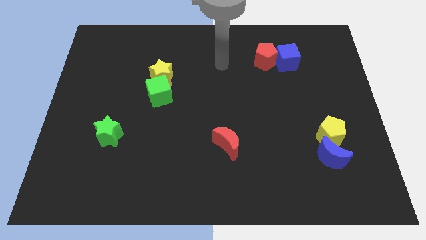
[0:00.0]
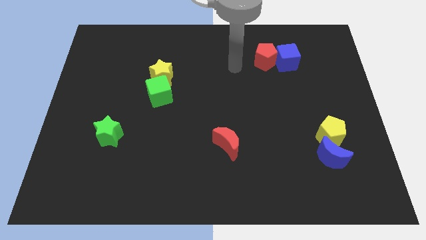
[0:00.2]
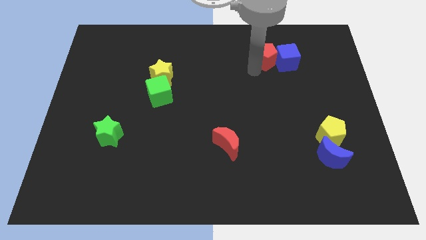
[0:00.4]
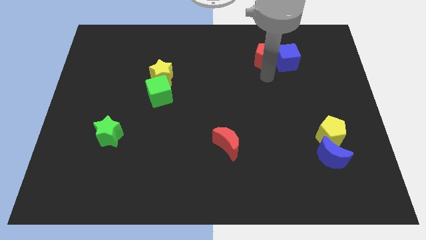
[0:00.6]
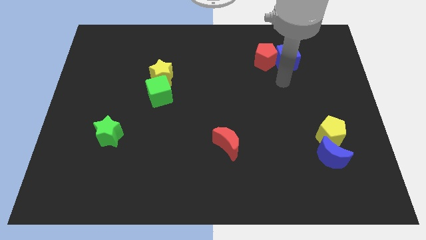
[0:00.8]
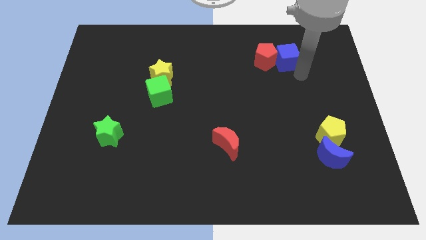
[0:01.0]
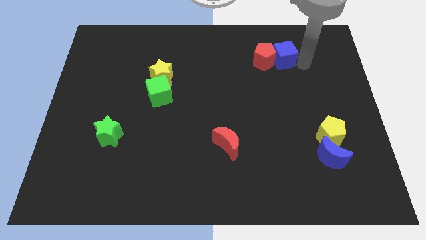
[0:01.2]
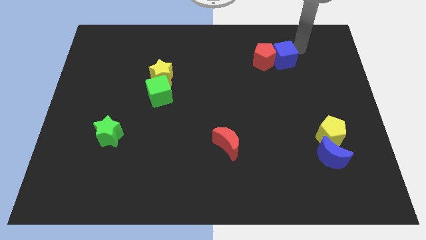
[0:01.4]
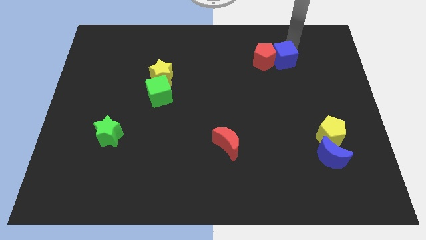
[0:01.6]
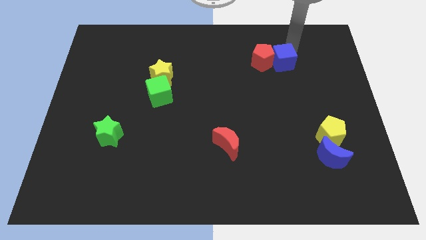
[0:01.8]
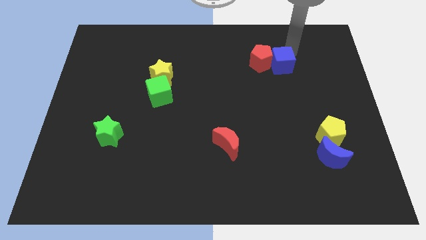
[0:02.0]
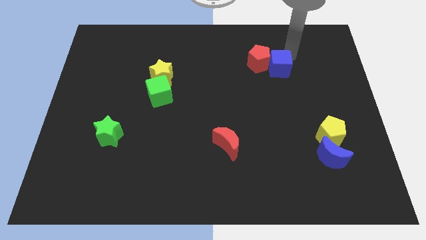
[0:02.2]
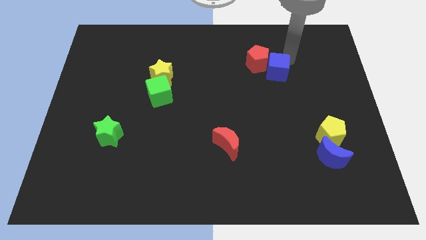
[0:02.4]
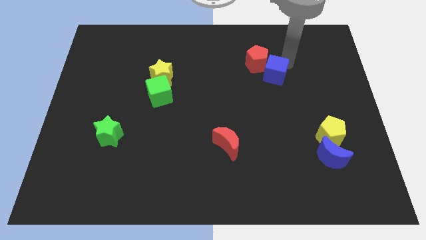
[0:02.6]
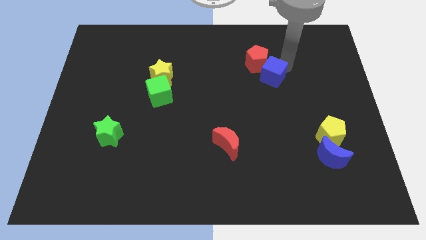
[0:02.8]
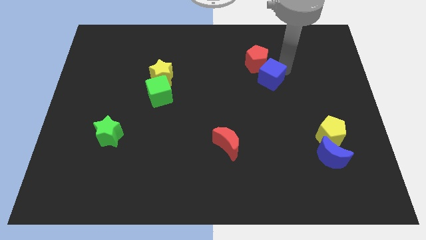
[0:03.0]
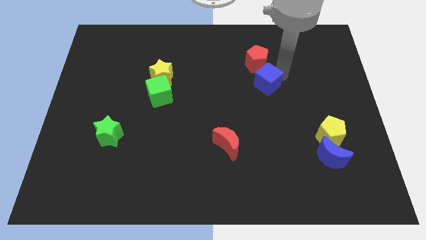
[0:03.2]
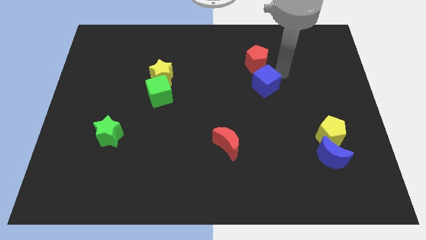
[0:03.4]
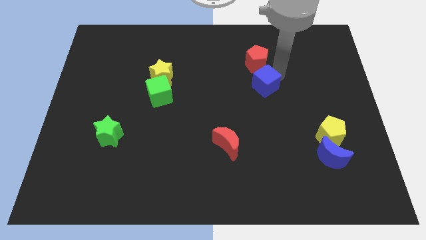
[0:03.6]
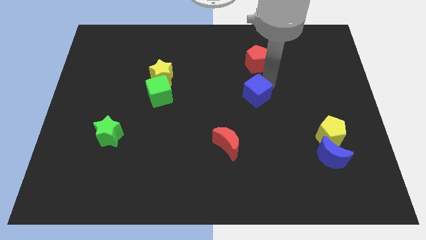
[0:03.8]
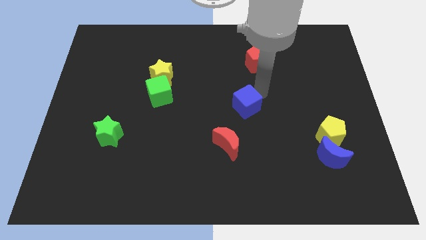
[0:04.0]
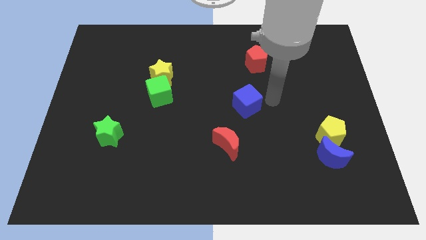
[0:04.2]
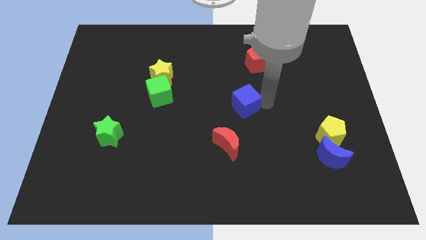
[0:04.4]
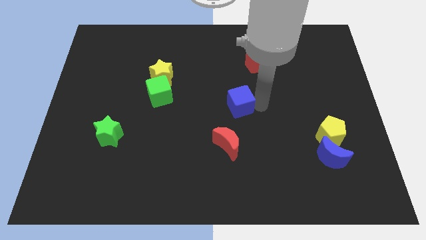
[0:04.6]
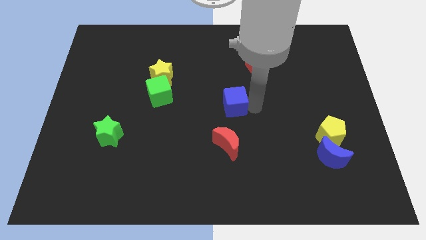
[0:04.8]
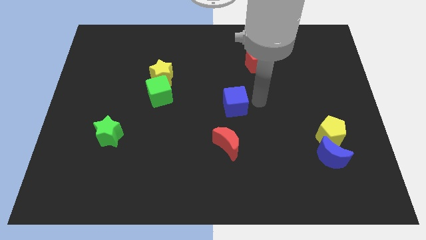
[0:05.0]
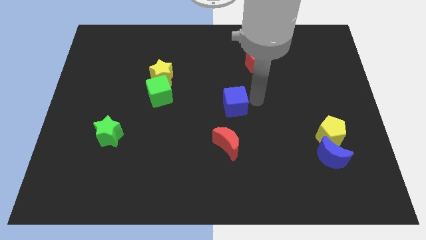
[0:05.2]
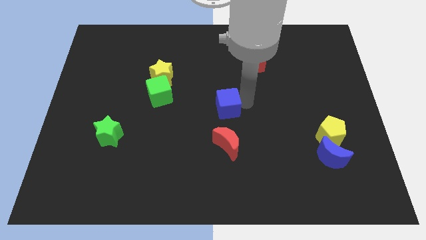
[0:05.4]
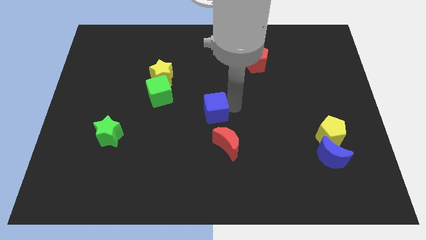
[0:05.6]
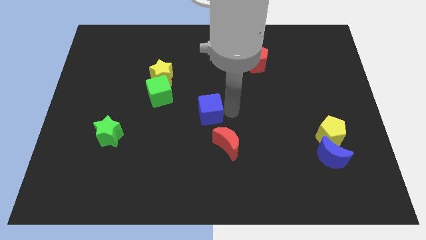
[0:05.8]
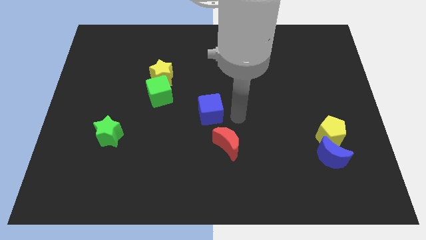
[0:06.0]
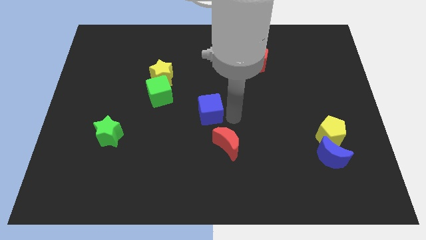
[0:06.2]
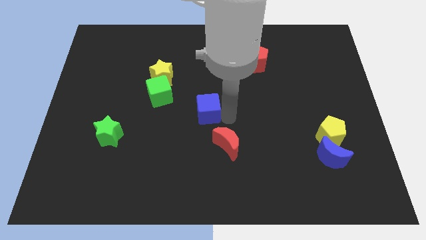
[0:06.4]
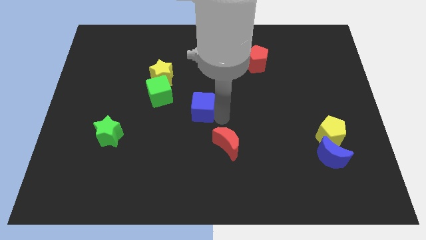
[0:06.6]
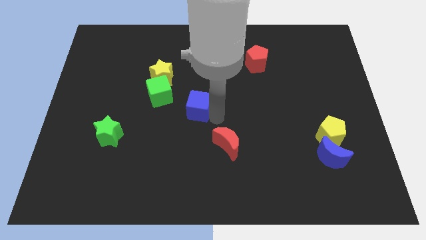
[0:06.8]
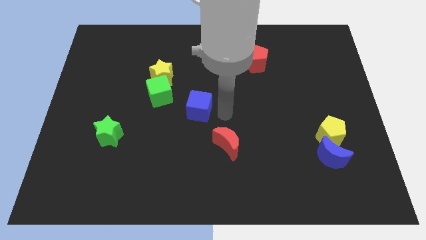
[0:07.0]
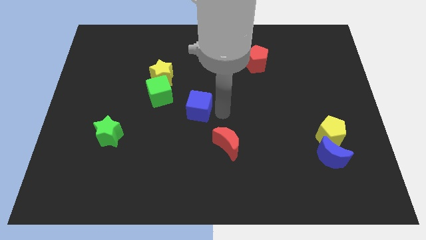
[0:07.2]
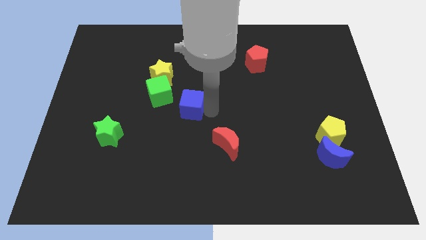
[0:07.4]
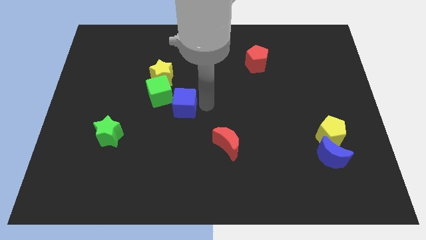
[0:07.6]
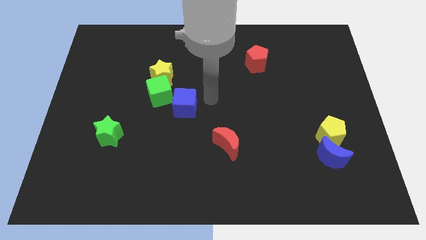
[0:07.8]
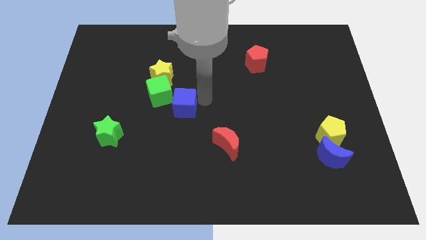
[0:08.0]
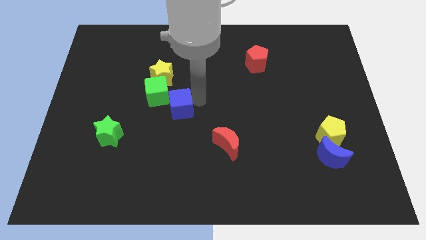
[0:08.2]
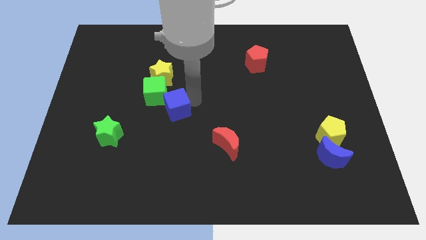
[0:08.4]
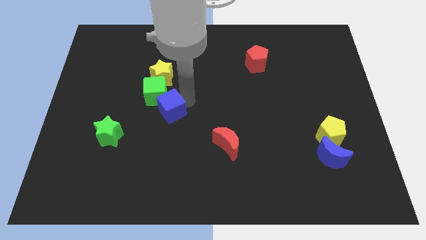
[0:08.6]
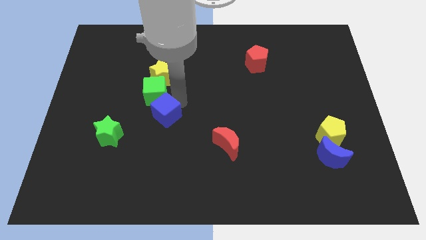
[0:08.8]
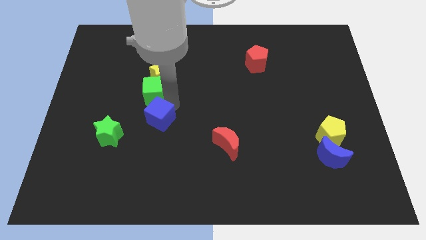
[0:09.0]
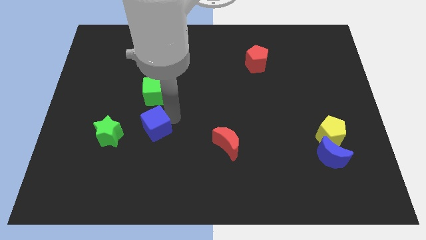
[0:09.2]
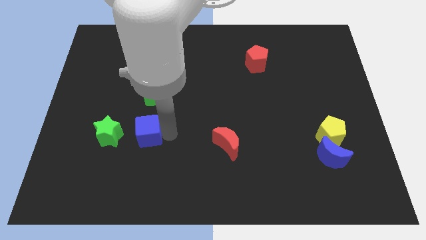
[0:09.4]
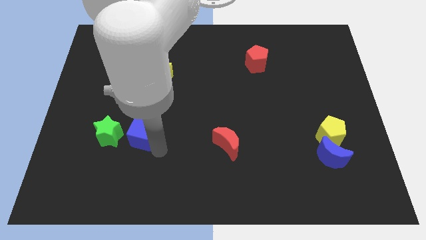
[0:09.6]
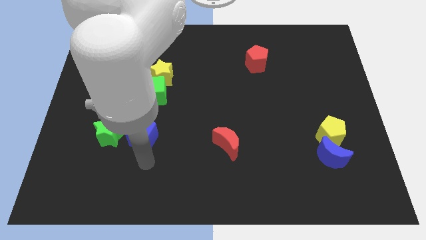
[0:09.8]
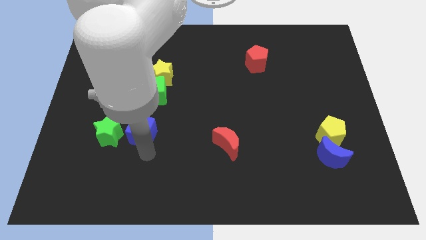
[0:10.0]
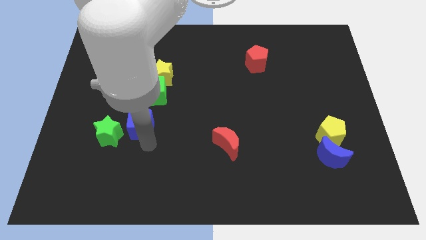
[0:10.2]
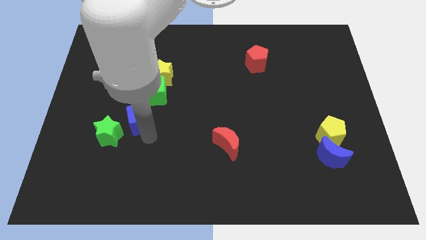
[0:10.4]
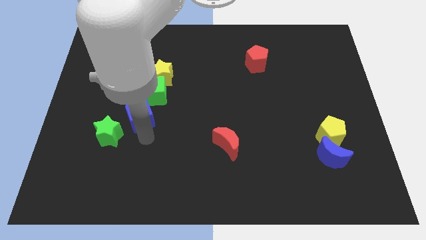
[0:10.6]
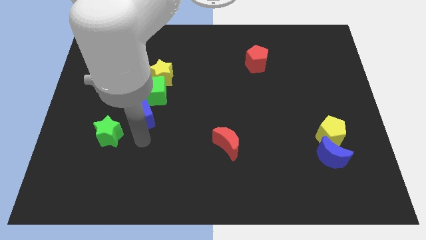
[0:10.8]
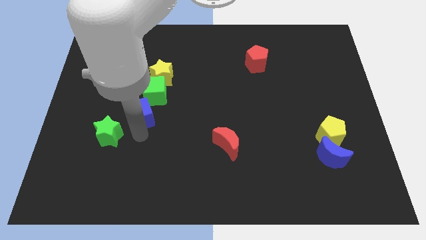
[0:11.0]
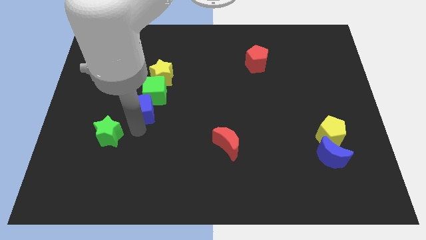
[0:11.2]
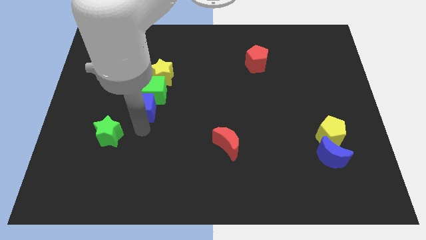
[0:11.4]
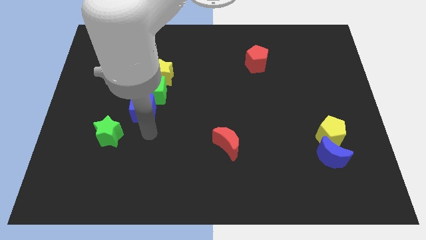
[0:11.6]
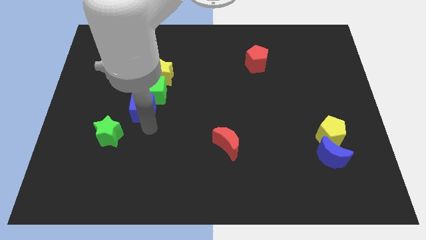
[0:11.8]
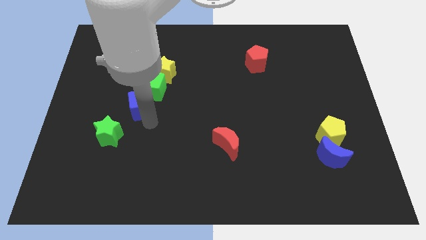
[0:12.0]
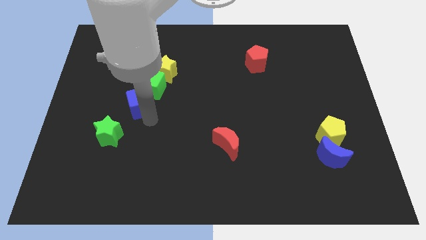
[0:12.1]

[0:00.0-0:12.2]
move the blue cube to the bottom left of the yellow star

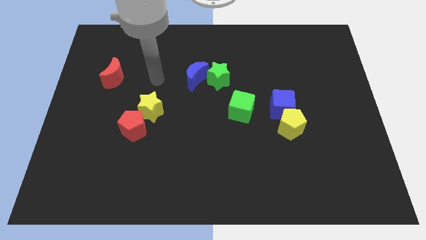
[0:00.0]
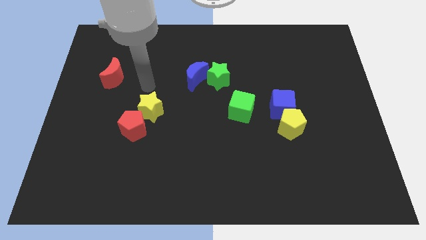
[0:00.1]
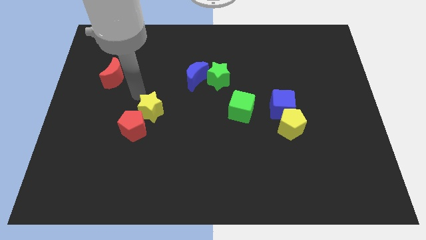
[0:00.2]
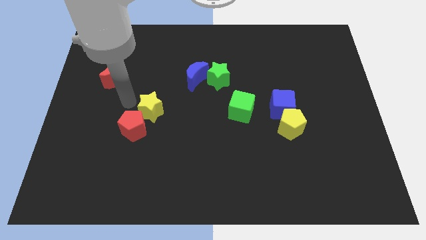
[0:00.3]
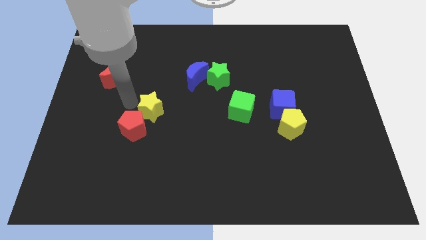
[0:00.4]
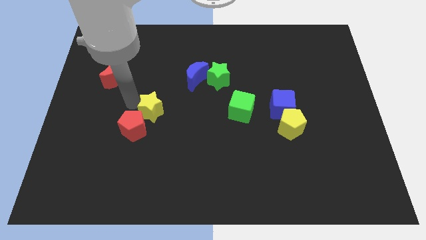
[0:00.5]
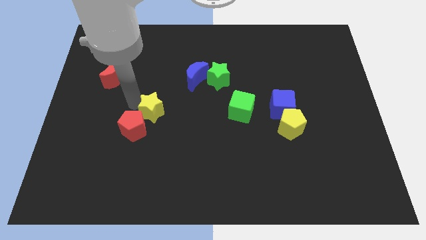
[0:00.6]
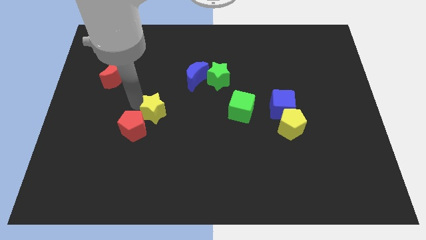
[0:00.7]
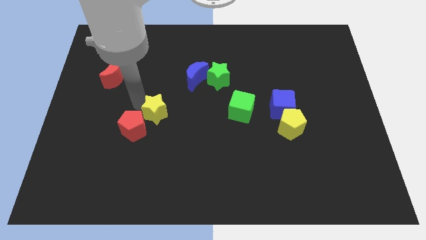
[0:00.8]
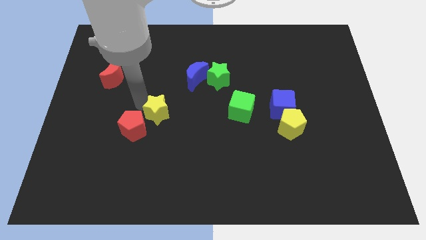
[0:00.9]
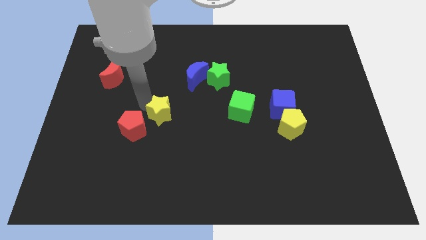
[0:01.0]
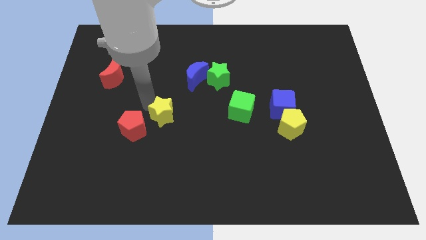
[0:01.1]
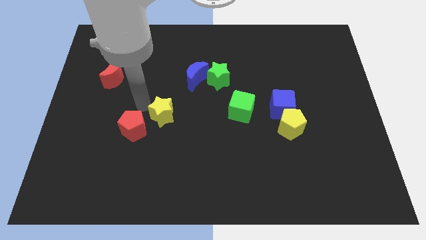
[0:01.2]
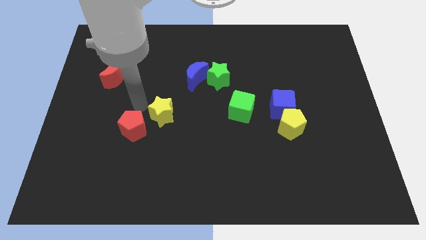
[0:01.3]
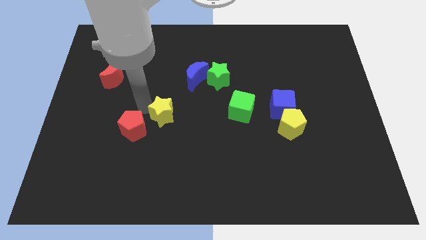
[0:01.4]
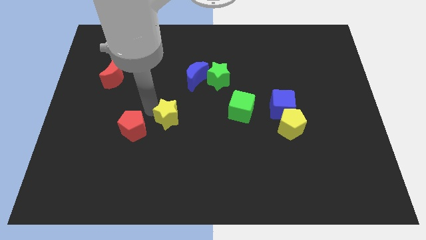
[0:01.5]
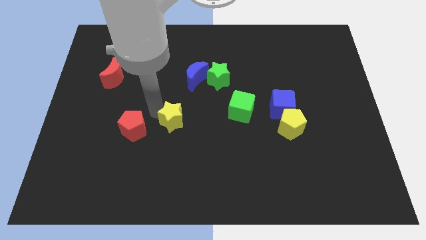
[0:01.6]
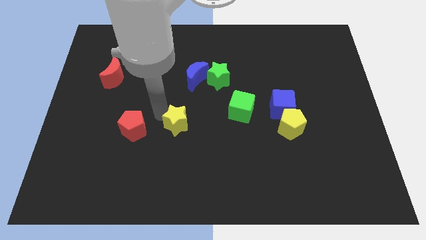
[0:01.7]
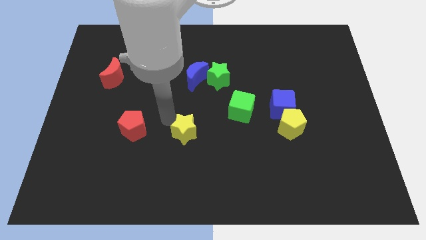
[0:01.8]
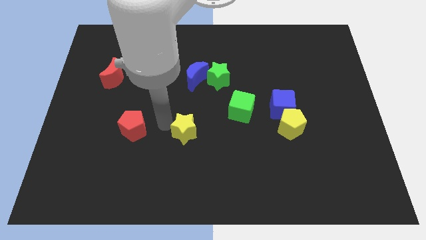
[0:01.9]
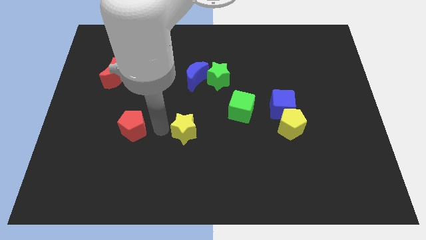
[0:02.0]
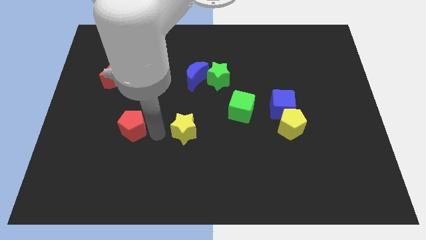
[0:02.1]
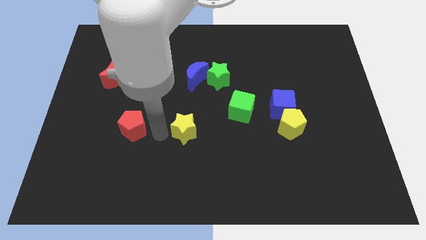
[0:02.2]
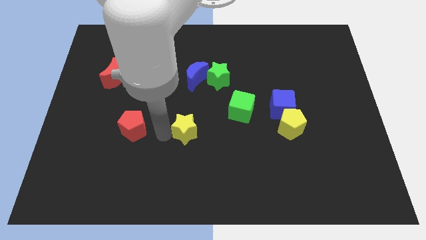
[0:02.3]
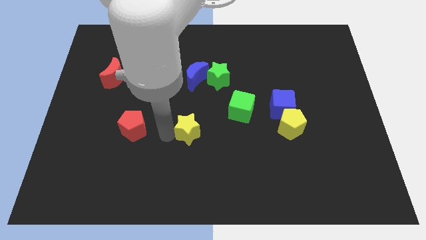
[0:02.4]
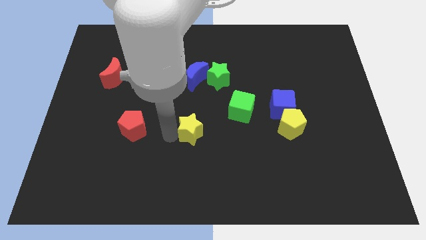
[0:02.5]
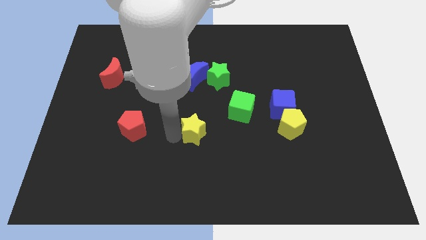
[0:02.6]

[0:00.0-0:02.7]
push the yellow star diagonally down and to the left of the green cube
